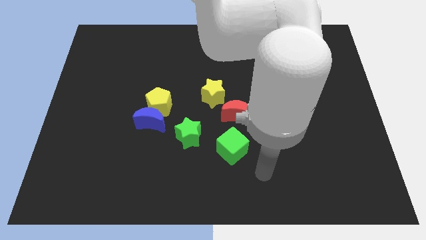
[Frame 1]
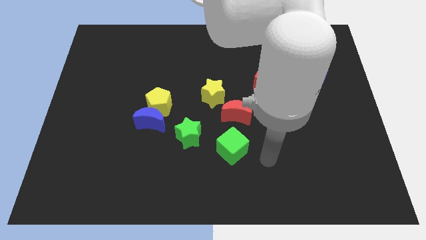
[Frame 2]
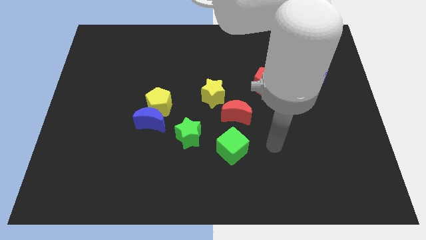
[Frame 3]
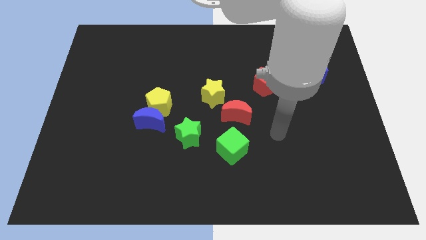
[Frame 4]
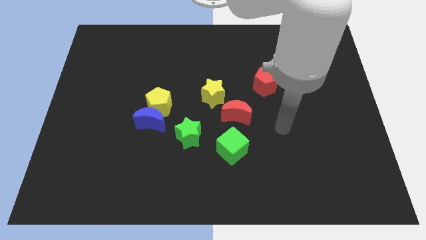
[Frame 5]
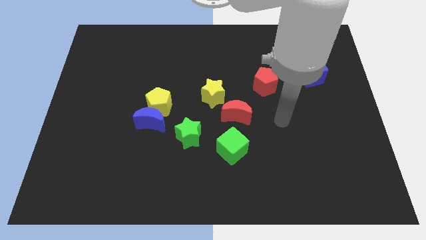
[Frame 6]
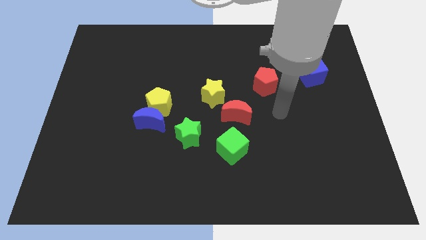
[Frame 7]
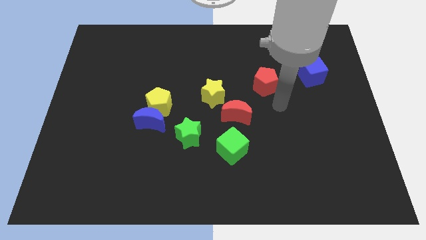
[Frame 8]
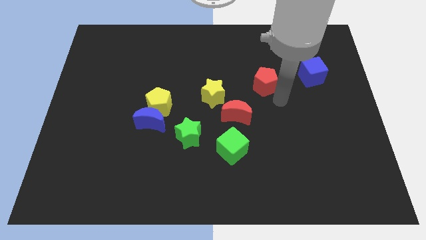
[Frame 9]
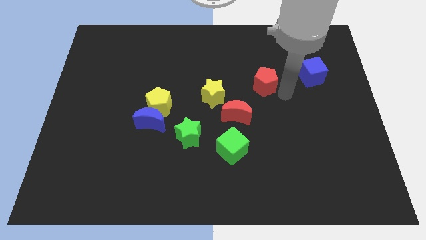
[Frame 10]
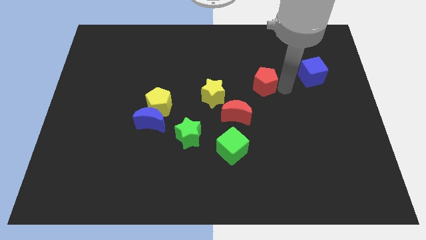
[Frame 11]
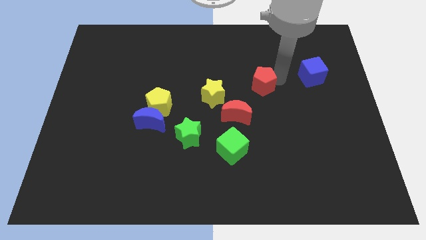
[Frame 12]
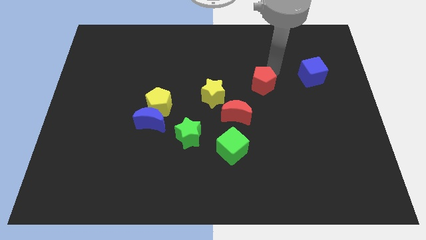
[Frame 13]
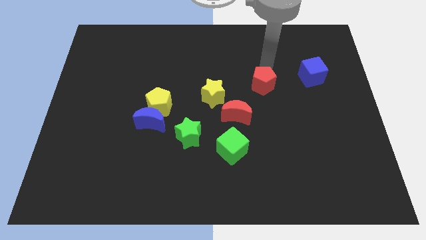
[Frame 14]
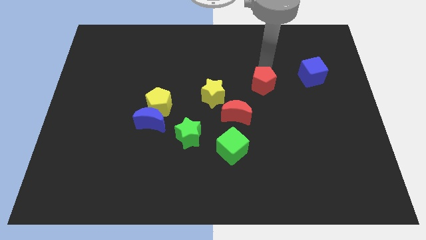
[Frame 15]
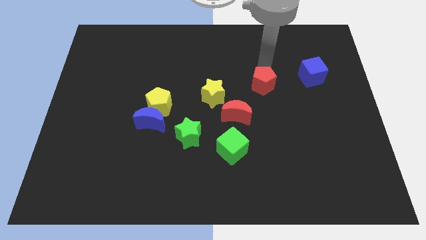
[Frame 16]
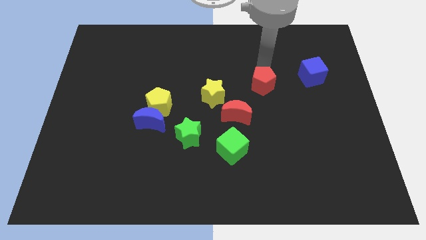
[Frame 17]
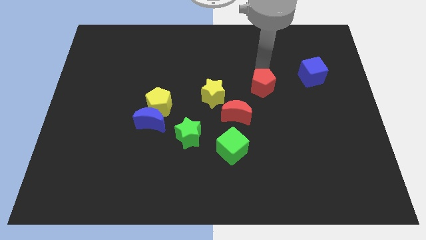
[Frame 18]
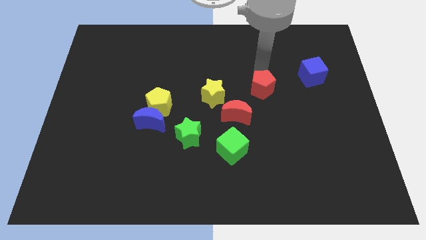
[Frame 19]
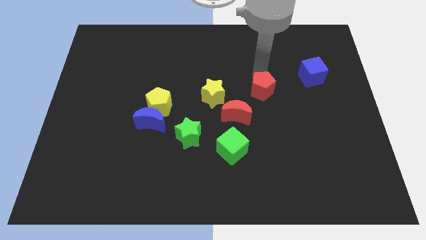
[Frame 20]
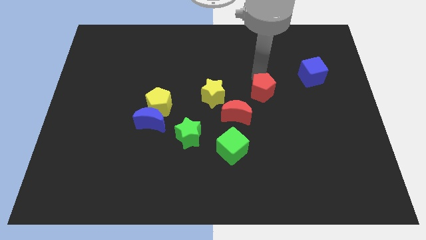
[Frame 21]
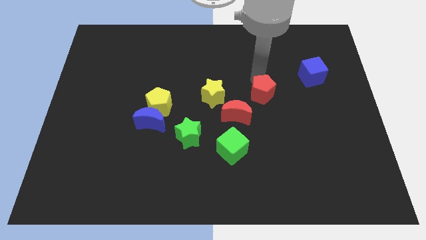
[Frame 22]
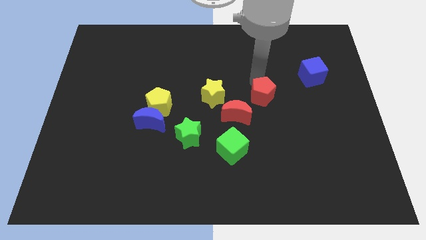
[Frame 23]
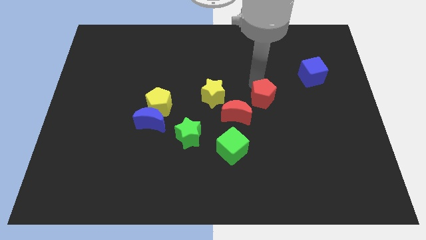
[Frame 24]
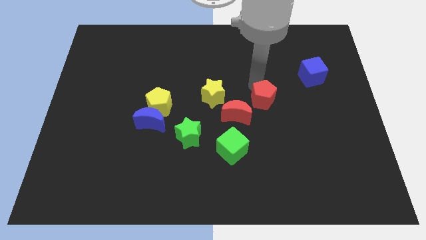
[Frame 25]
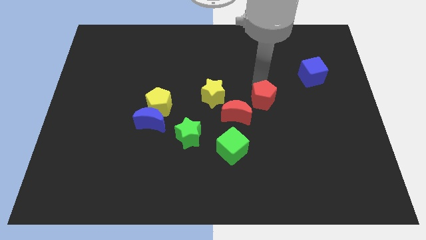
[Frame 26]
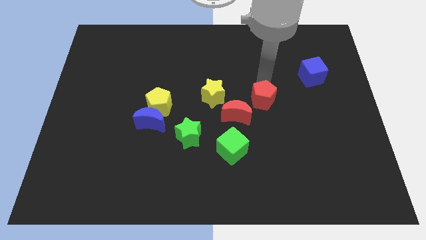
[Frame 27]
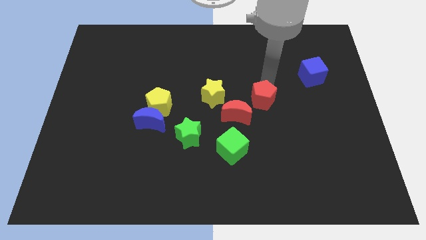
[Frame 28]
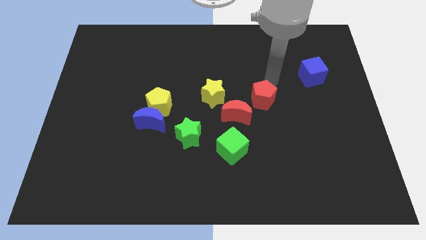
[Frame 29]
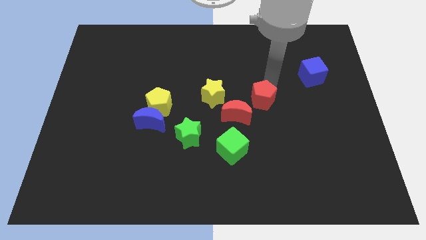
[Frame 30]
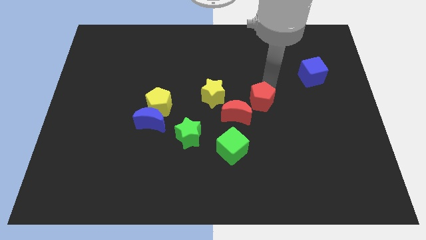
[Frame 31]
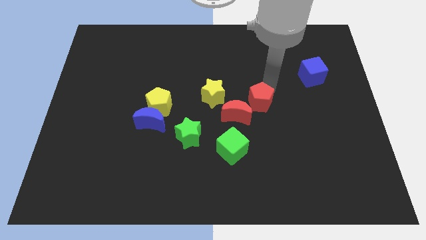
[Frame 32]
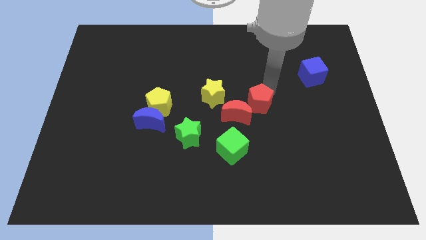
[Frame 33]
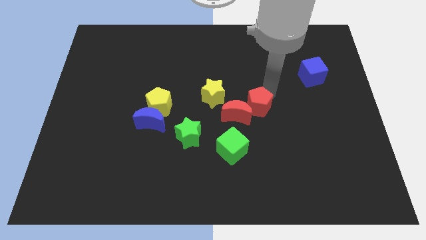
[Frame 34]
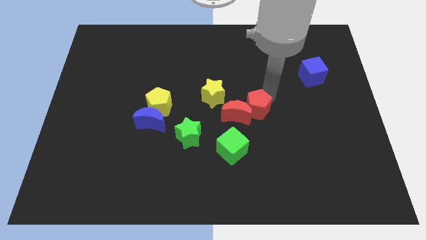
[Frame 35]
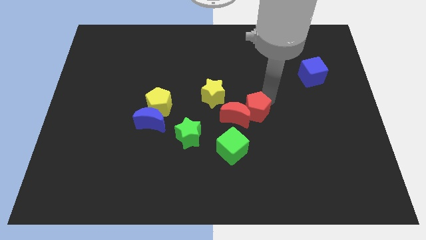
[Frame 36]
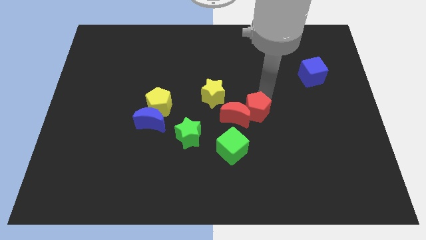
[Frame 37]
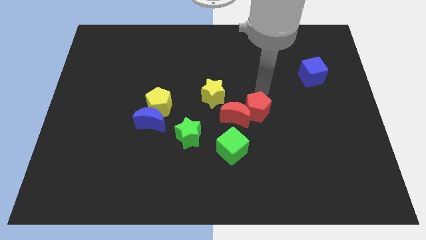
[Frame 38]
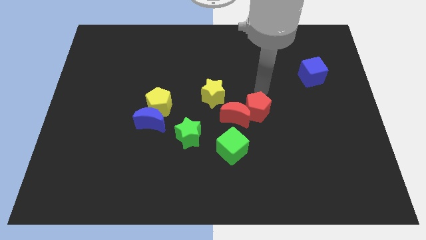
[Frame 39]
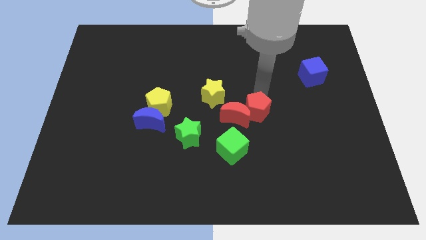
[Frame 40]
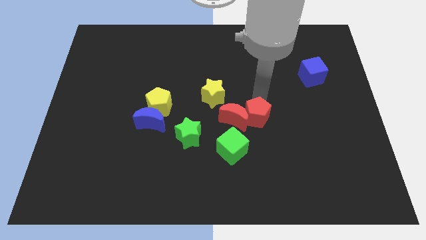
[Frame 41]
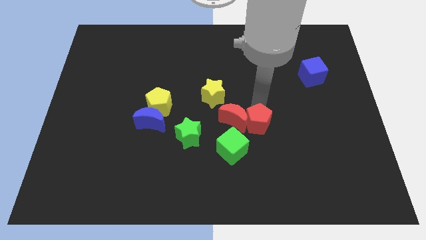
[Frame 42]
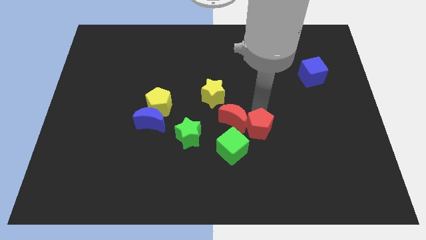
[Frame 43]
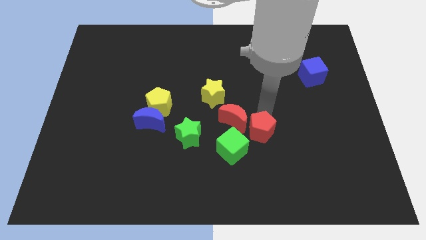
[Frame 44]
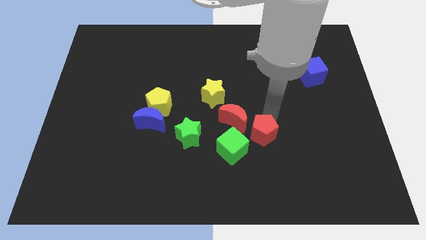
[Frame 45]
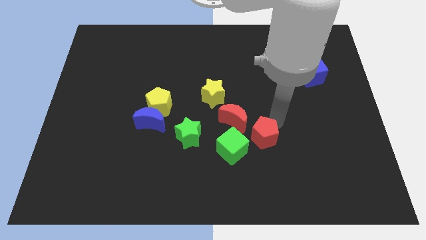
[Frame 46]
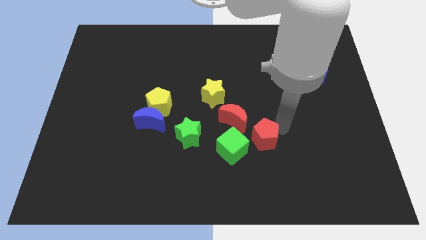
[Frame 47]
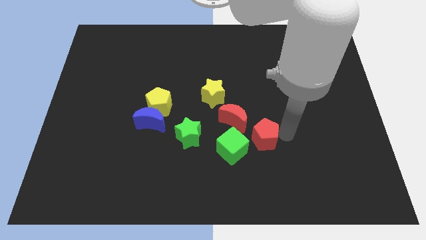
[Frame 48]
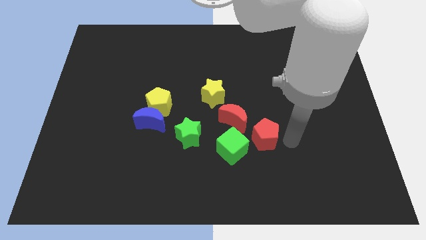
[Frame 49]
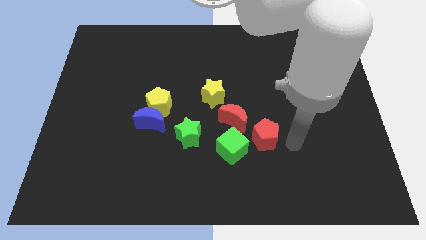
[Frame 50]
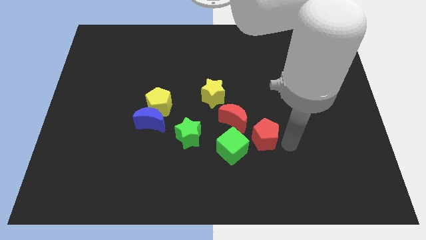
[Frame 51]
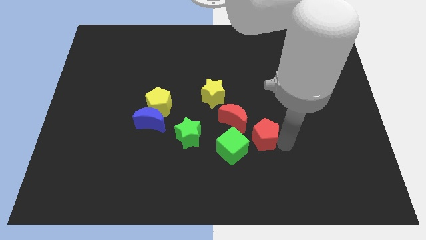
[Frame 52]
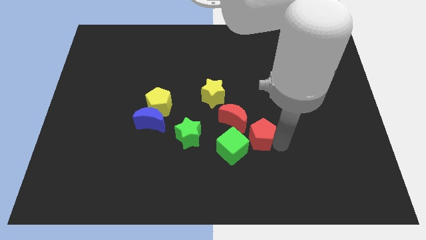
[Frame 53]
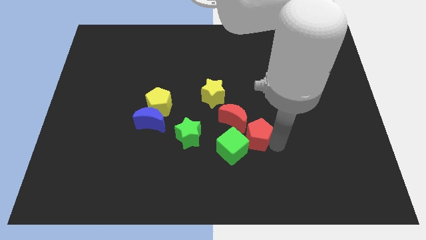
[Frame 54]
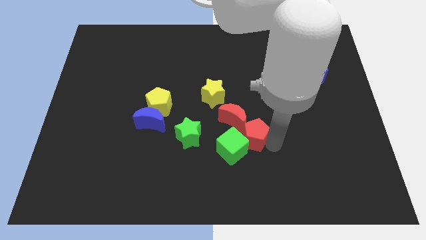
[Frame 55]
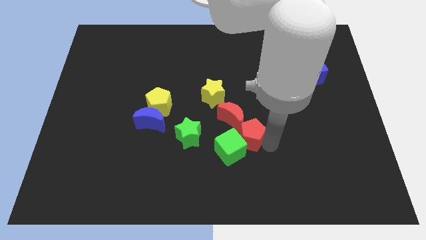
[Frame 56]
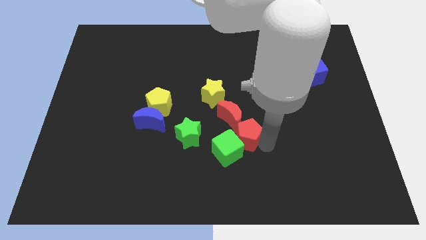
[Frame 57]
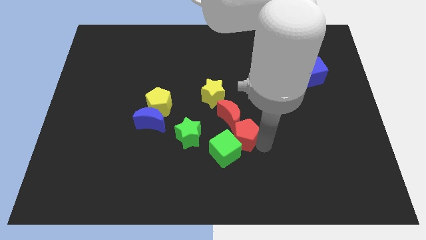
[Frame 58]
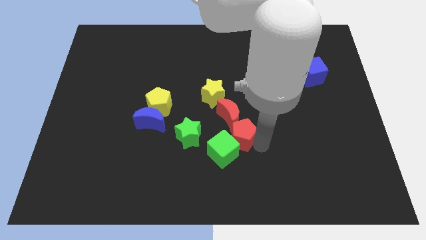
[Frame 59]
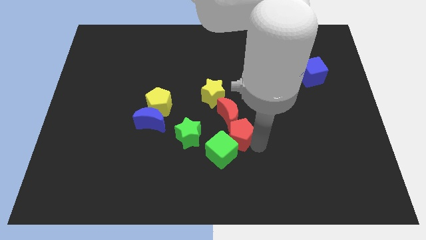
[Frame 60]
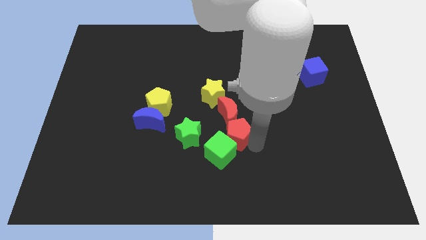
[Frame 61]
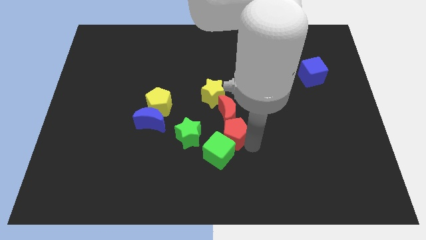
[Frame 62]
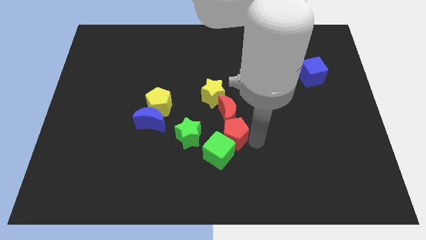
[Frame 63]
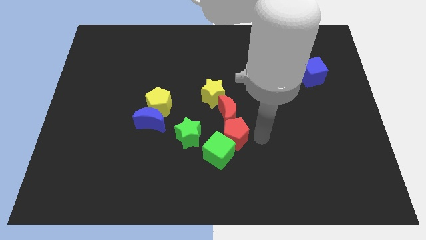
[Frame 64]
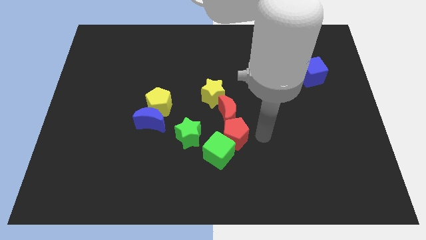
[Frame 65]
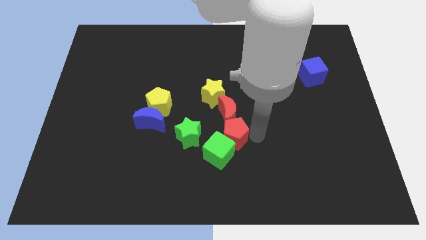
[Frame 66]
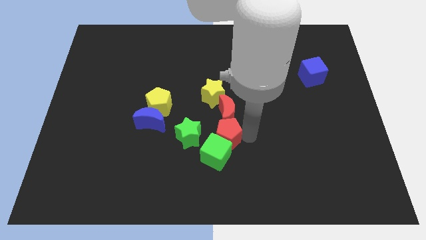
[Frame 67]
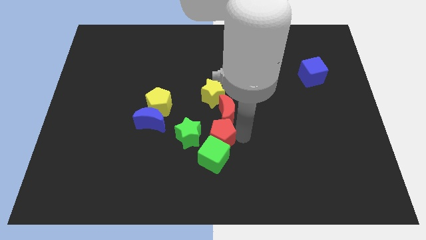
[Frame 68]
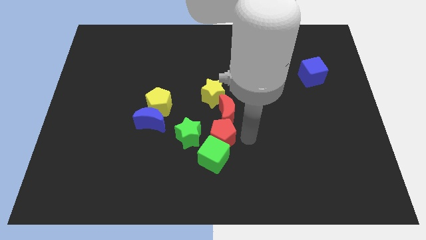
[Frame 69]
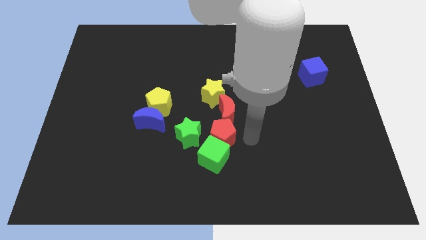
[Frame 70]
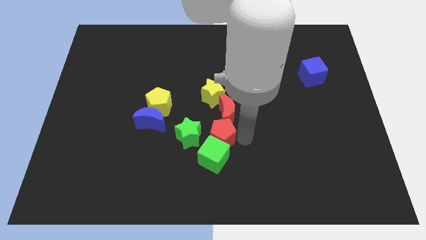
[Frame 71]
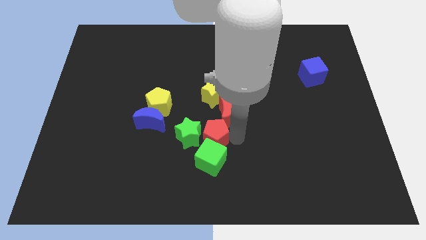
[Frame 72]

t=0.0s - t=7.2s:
push the red pentagon towards the green star
